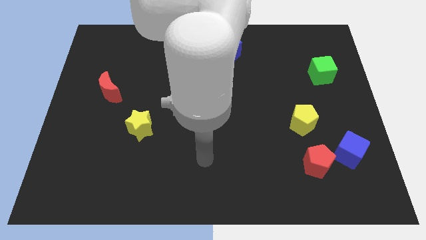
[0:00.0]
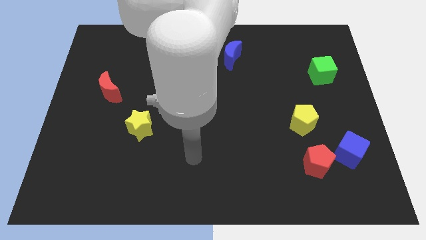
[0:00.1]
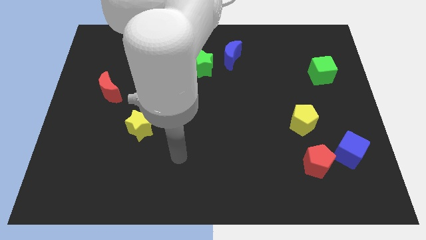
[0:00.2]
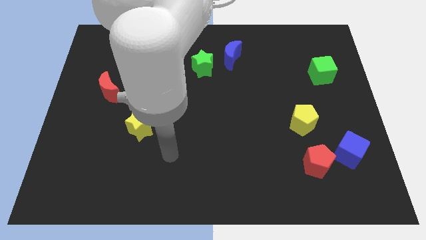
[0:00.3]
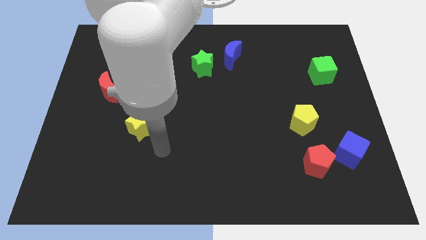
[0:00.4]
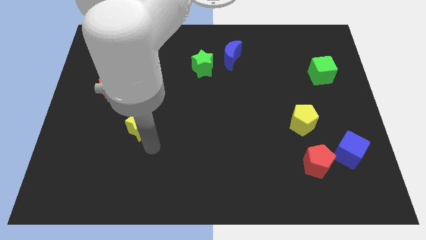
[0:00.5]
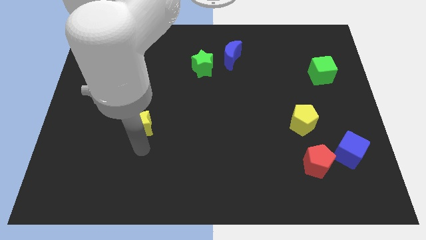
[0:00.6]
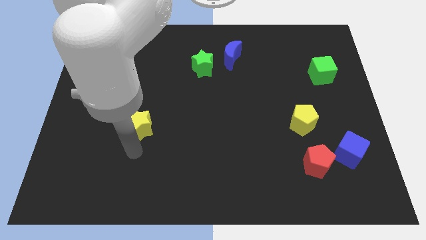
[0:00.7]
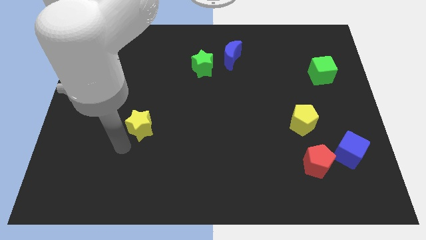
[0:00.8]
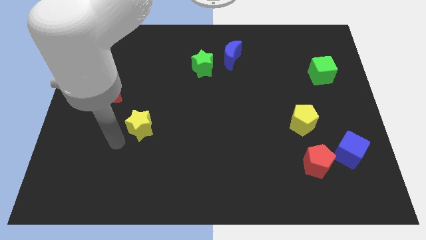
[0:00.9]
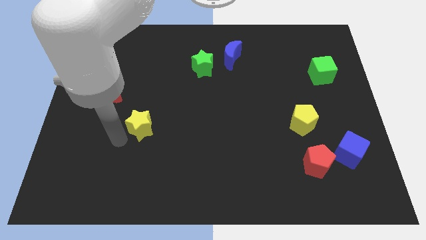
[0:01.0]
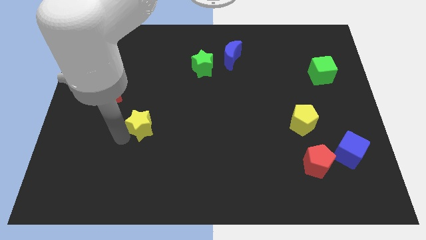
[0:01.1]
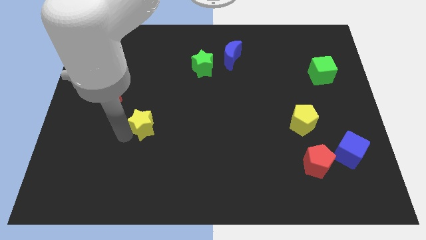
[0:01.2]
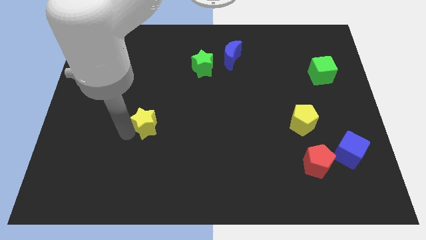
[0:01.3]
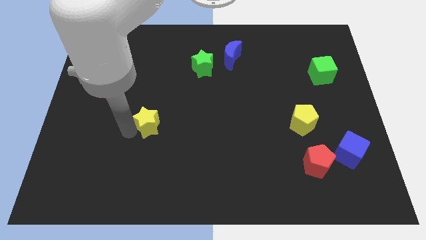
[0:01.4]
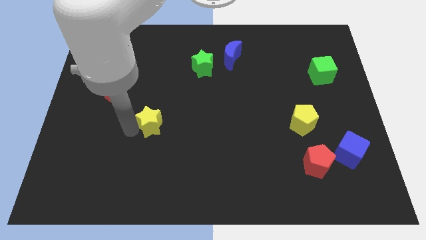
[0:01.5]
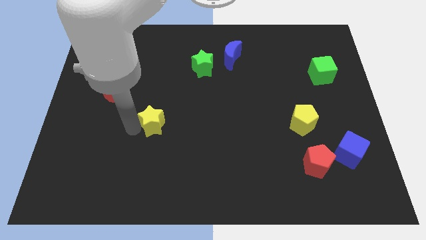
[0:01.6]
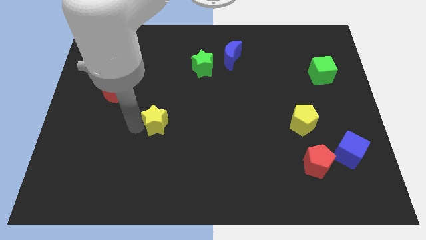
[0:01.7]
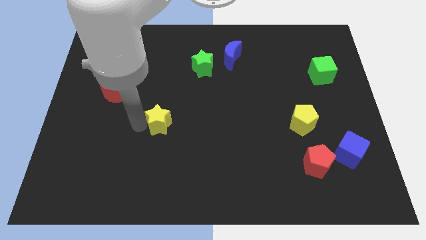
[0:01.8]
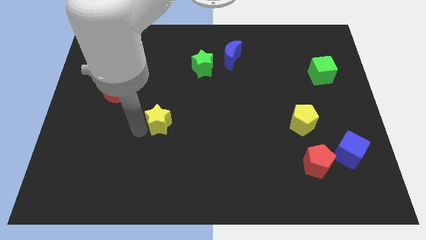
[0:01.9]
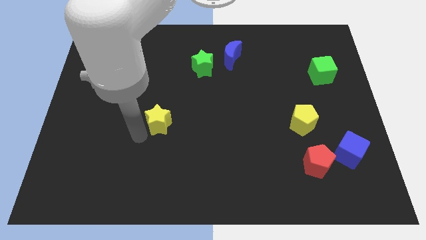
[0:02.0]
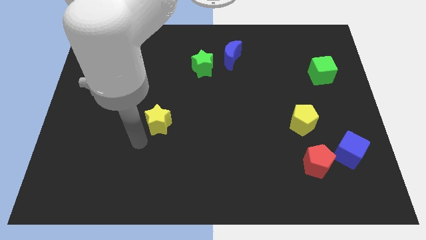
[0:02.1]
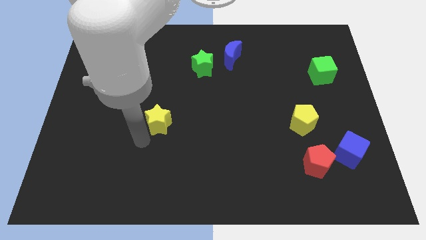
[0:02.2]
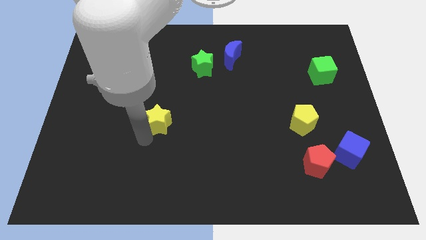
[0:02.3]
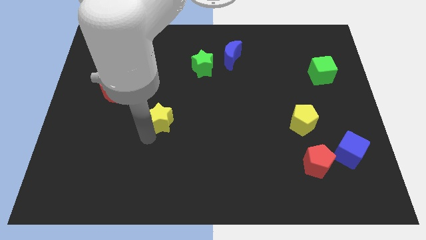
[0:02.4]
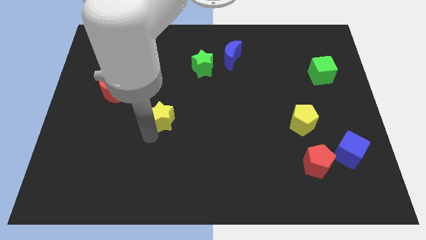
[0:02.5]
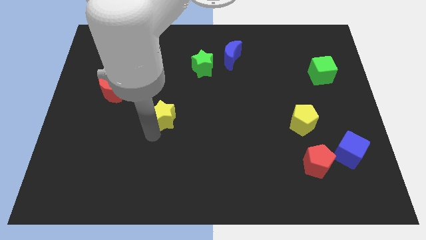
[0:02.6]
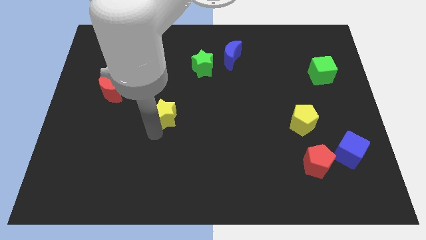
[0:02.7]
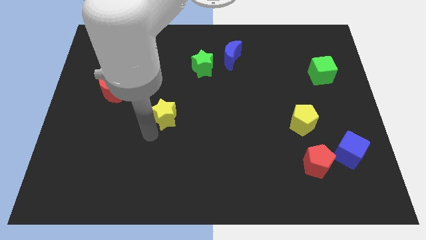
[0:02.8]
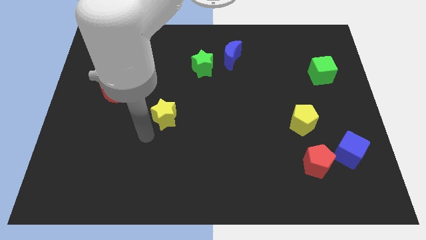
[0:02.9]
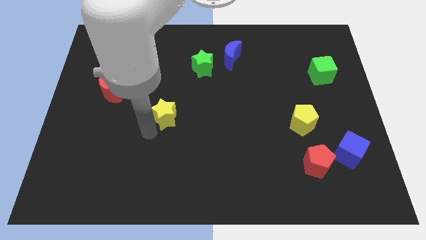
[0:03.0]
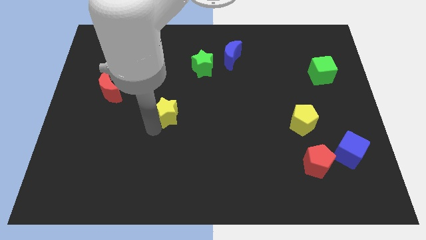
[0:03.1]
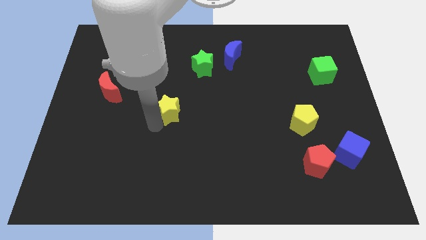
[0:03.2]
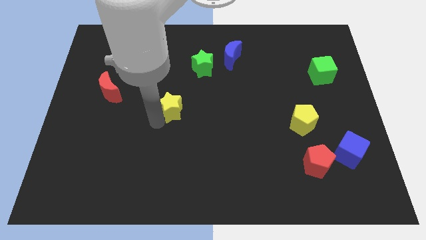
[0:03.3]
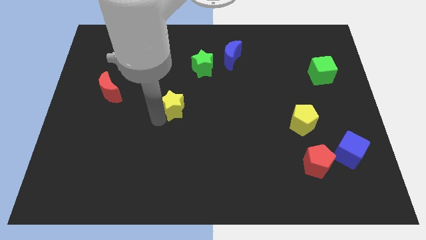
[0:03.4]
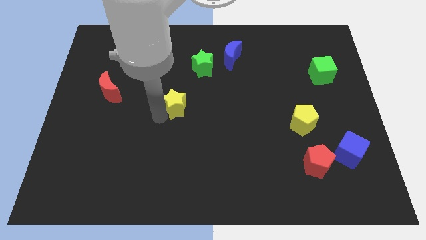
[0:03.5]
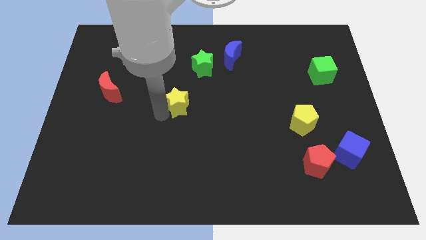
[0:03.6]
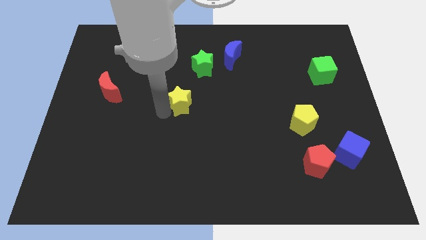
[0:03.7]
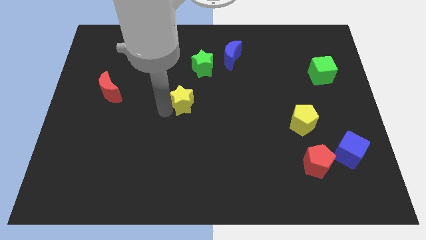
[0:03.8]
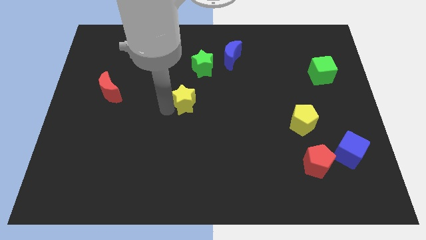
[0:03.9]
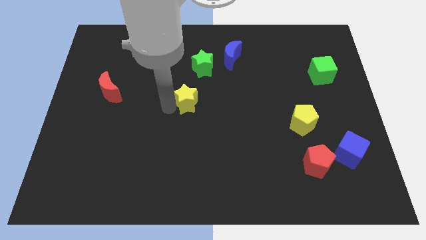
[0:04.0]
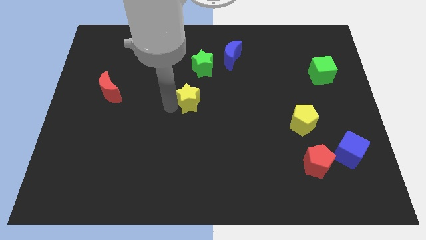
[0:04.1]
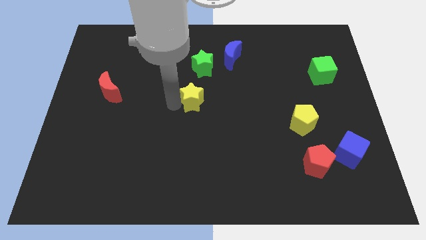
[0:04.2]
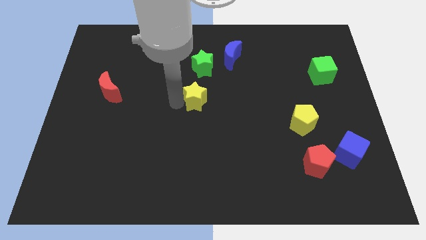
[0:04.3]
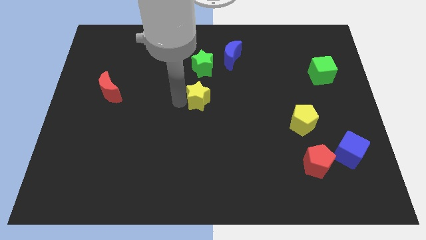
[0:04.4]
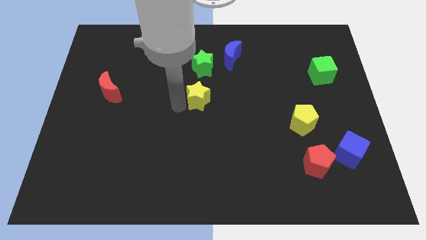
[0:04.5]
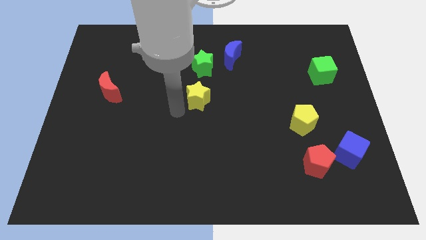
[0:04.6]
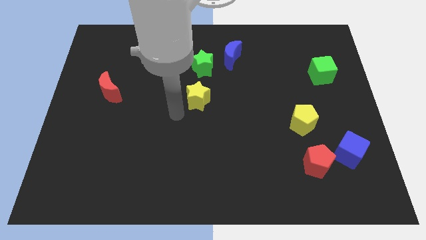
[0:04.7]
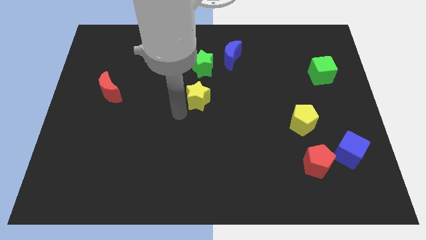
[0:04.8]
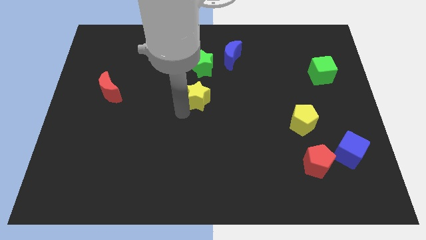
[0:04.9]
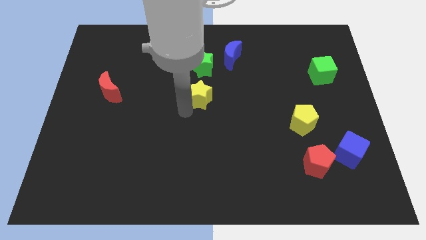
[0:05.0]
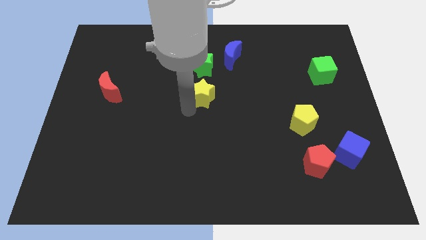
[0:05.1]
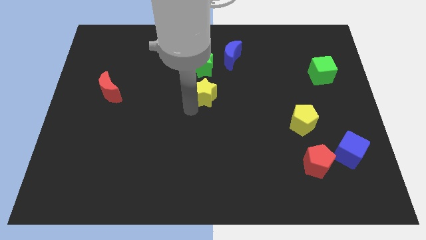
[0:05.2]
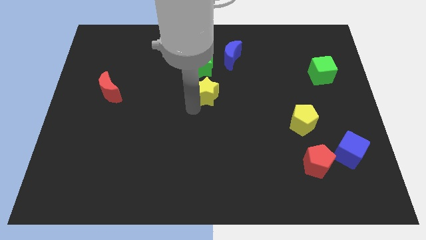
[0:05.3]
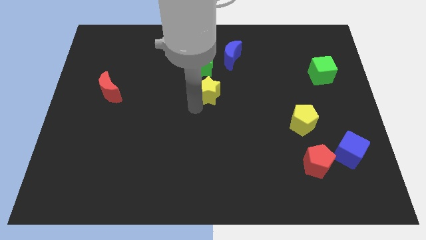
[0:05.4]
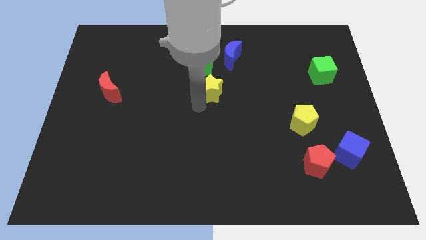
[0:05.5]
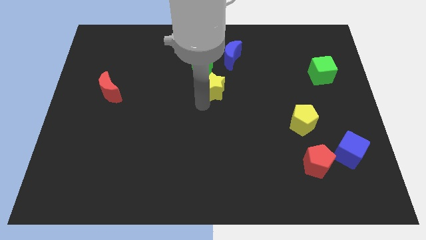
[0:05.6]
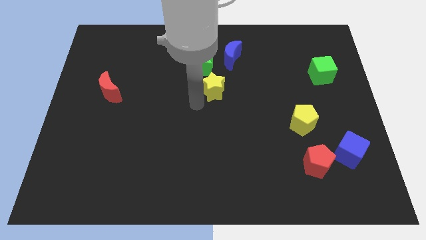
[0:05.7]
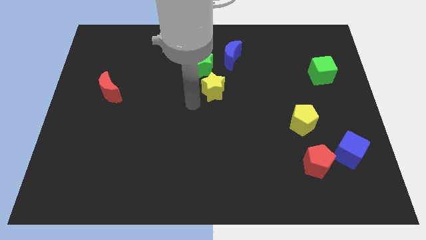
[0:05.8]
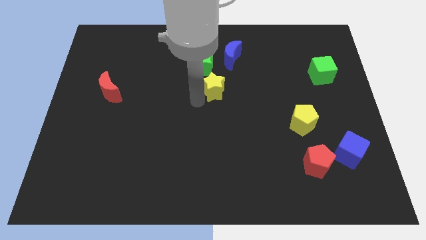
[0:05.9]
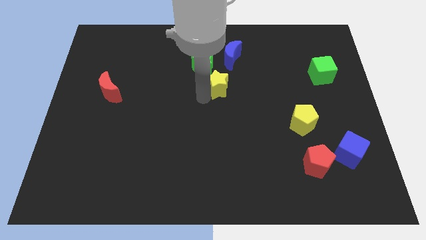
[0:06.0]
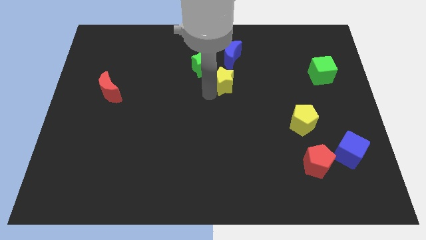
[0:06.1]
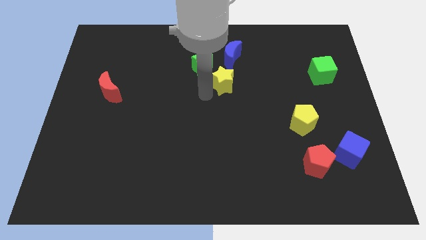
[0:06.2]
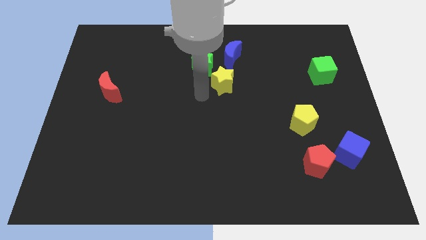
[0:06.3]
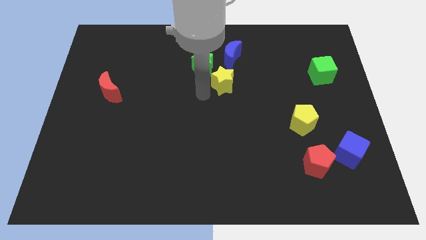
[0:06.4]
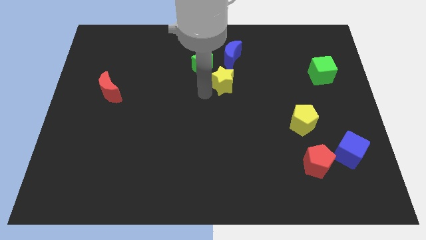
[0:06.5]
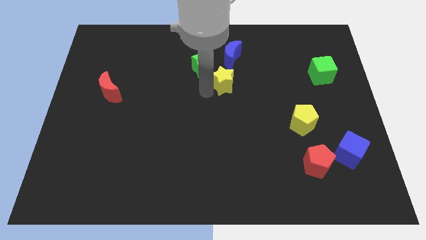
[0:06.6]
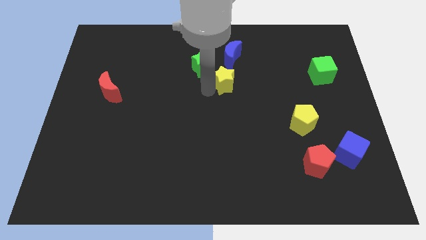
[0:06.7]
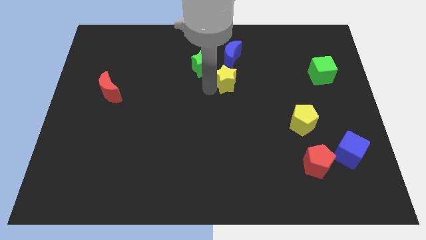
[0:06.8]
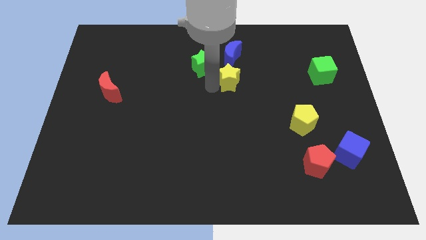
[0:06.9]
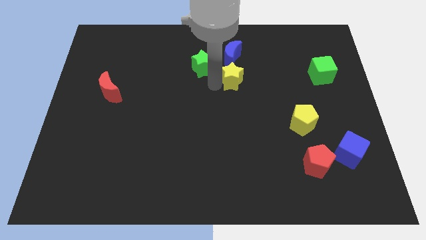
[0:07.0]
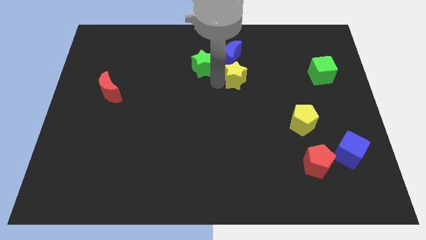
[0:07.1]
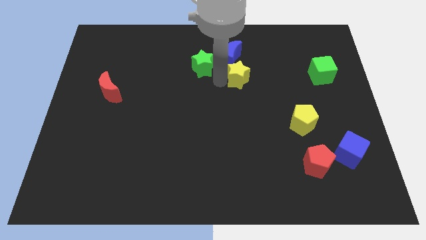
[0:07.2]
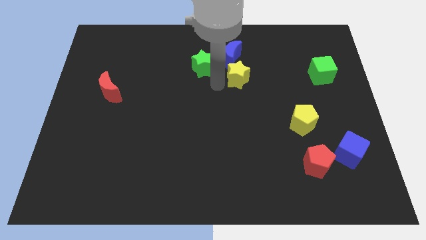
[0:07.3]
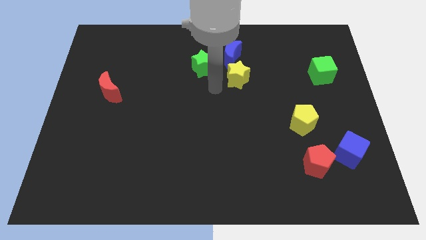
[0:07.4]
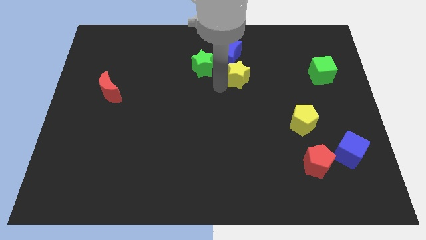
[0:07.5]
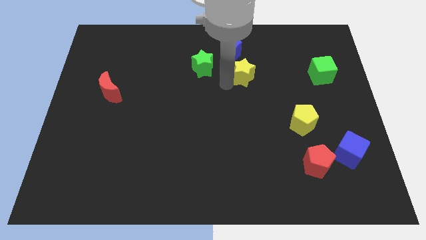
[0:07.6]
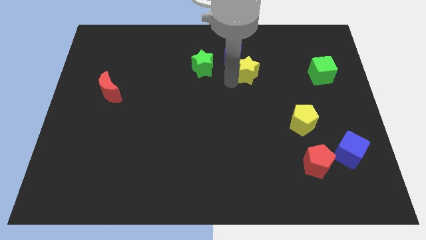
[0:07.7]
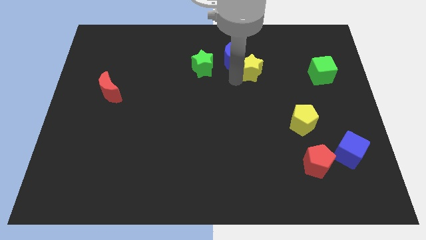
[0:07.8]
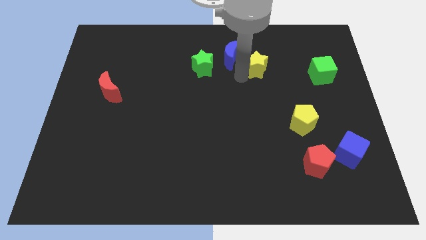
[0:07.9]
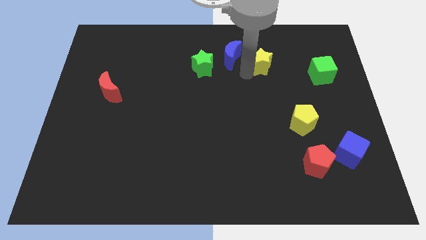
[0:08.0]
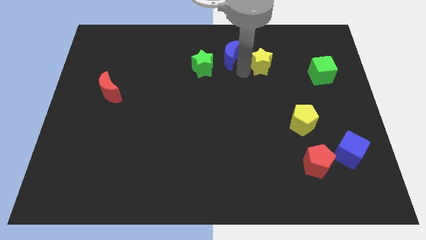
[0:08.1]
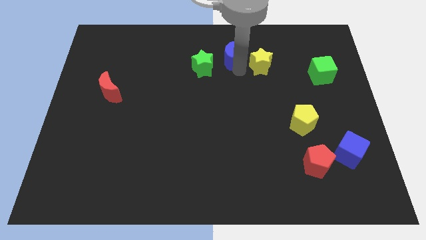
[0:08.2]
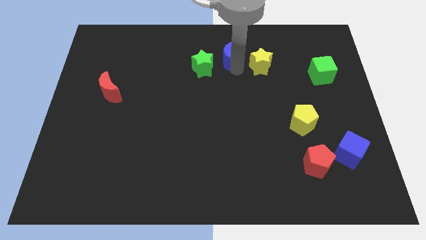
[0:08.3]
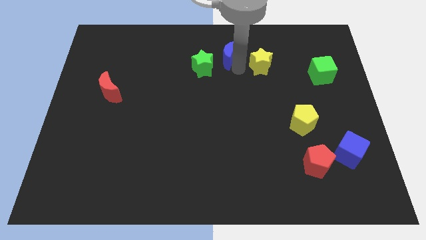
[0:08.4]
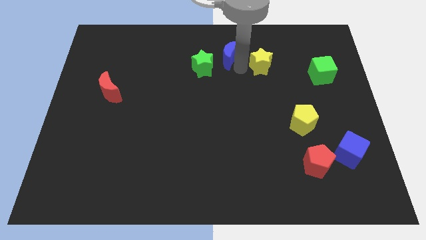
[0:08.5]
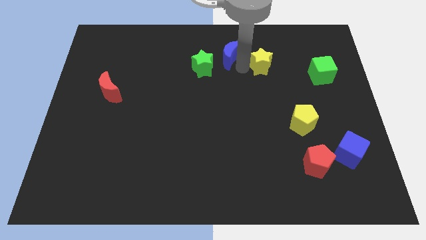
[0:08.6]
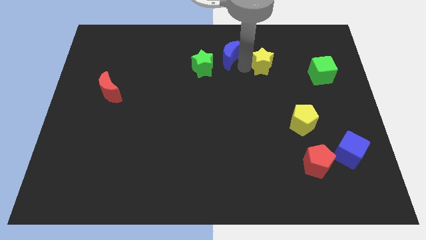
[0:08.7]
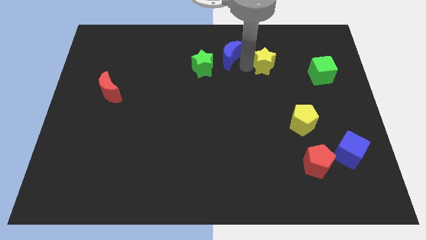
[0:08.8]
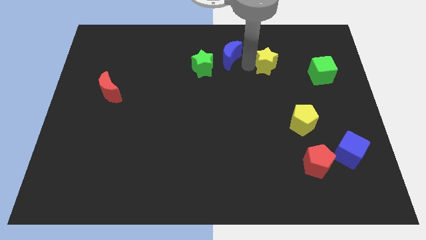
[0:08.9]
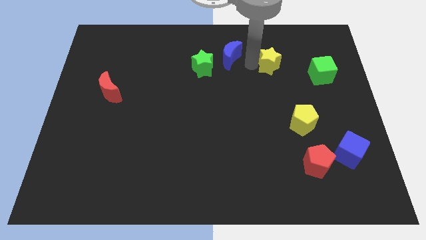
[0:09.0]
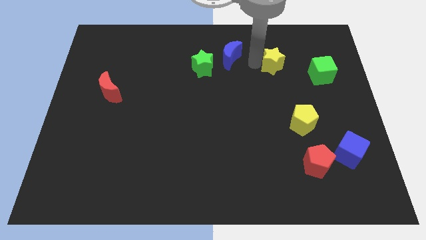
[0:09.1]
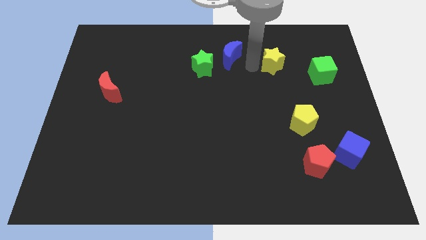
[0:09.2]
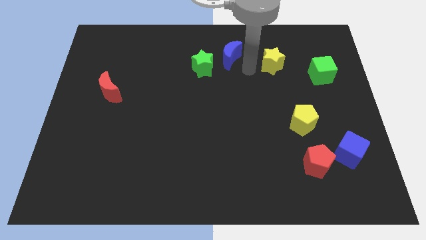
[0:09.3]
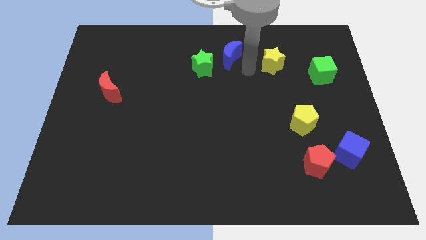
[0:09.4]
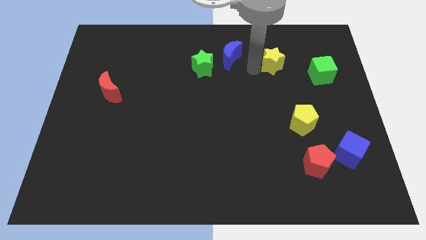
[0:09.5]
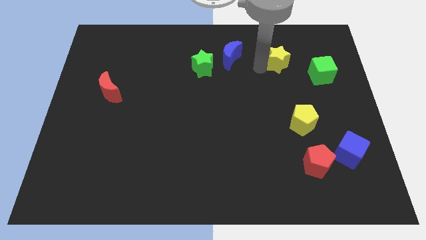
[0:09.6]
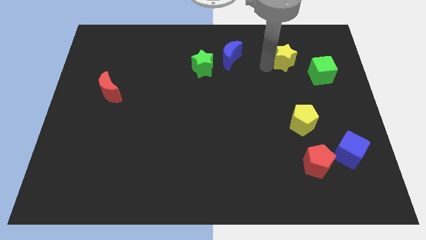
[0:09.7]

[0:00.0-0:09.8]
slide the yellow star to the top left side of the green cube
